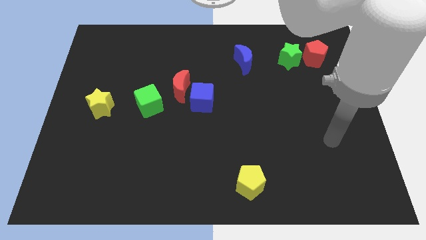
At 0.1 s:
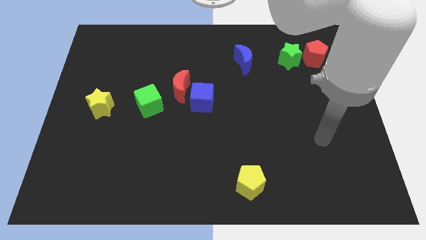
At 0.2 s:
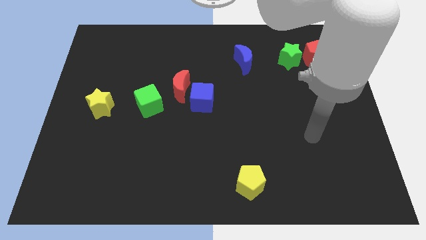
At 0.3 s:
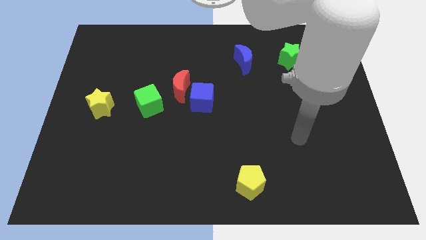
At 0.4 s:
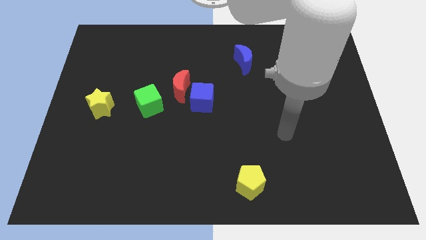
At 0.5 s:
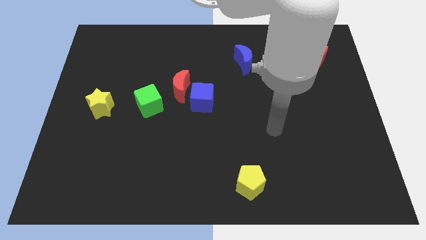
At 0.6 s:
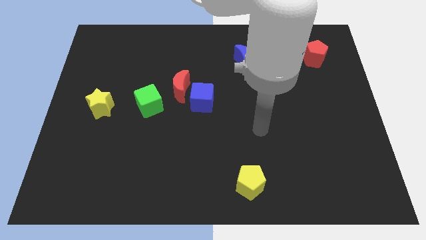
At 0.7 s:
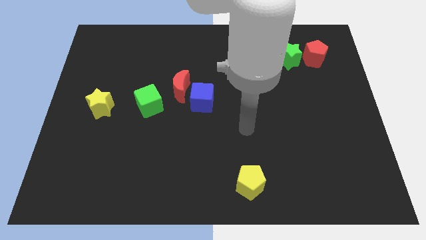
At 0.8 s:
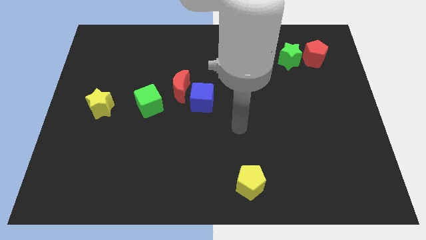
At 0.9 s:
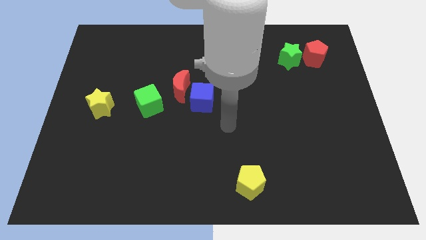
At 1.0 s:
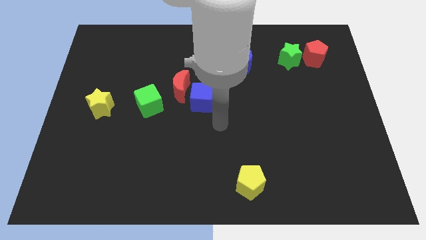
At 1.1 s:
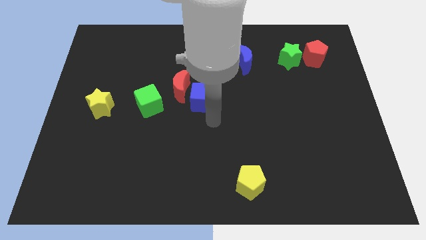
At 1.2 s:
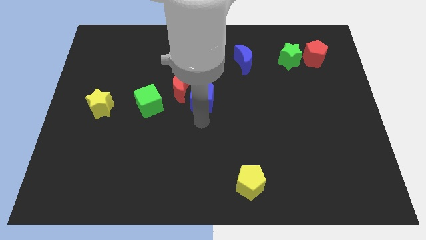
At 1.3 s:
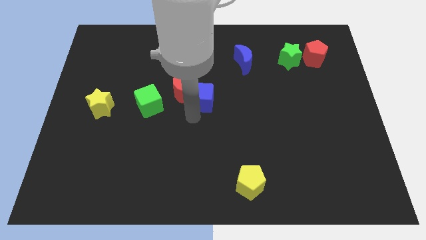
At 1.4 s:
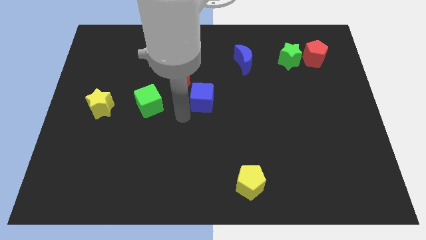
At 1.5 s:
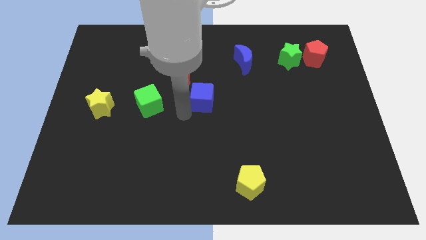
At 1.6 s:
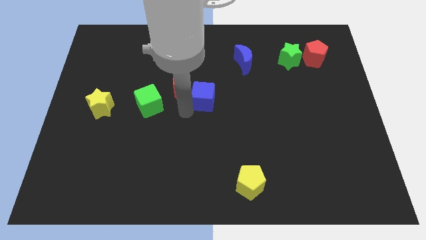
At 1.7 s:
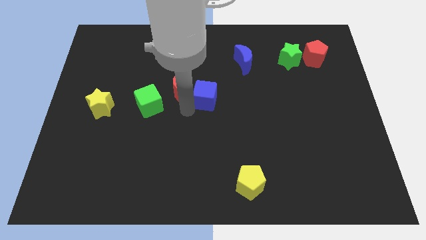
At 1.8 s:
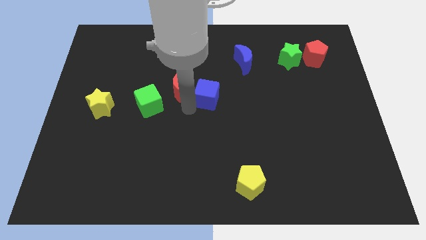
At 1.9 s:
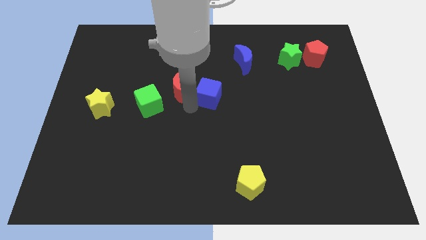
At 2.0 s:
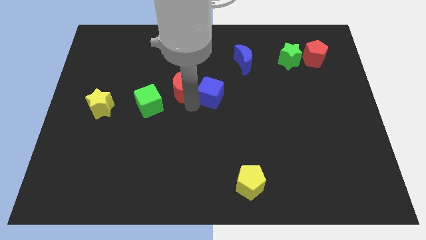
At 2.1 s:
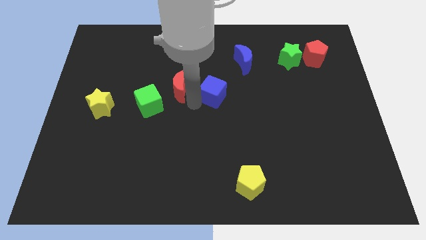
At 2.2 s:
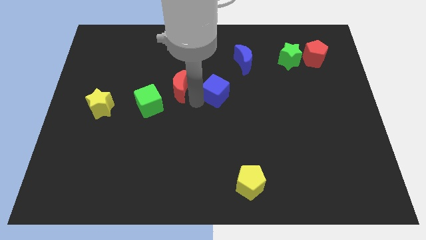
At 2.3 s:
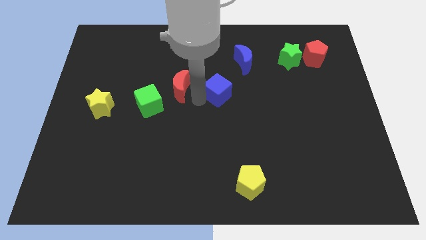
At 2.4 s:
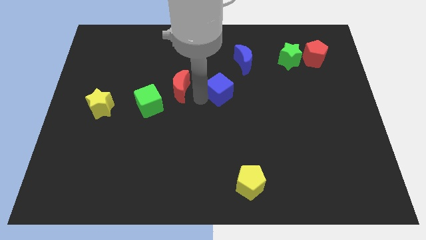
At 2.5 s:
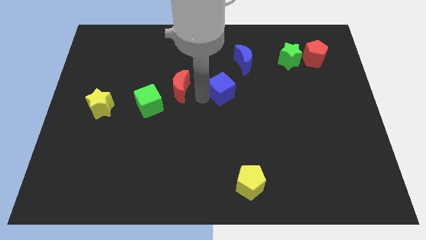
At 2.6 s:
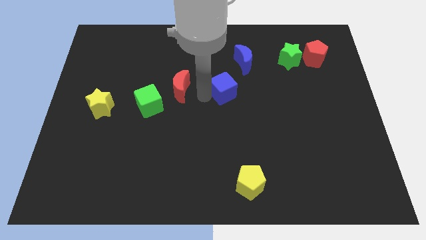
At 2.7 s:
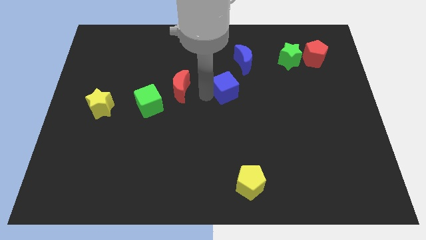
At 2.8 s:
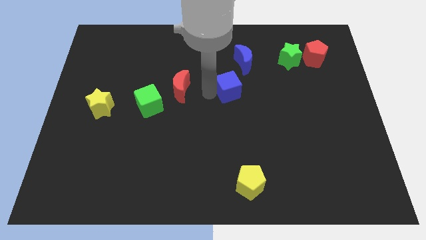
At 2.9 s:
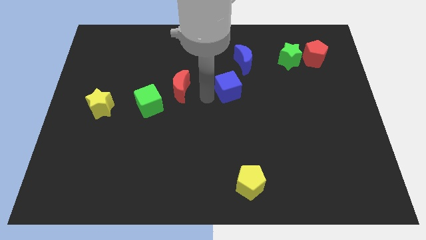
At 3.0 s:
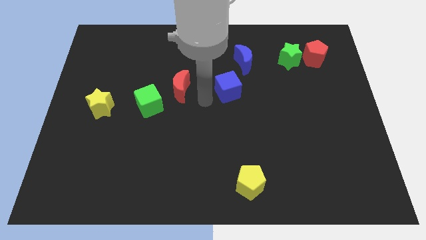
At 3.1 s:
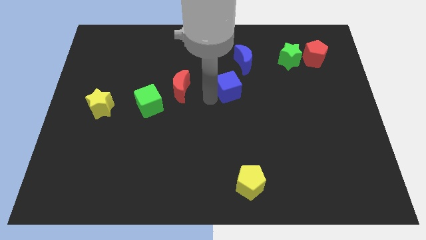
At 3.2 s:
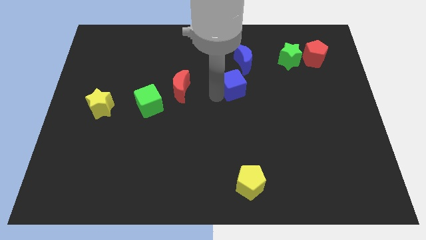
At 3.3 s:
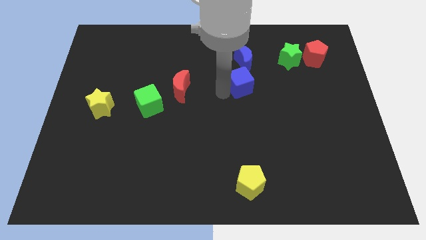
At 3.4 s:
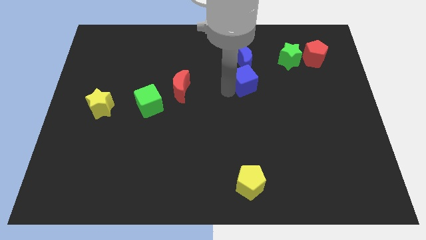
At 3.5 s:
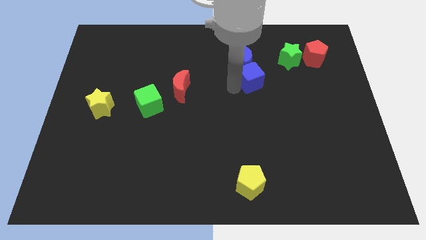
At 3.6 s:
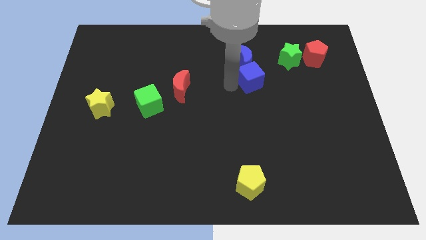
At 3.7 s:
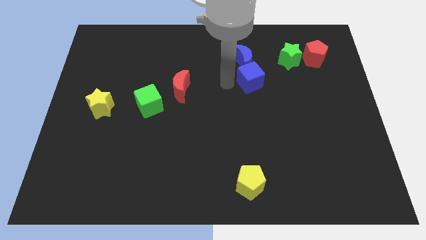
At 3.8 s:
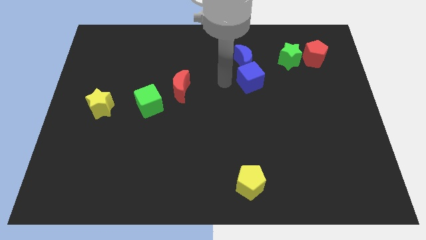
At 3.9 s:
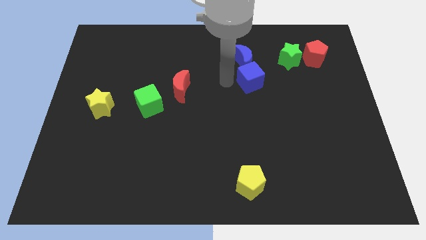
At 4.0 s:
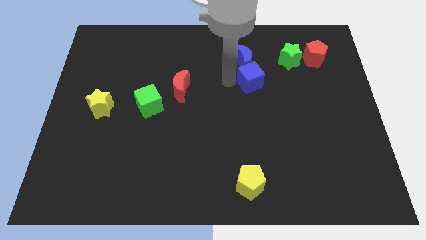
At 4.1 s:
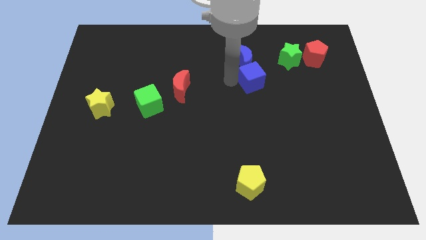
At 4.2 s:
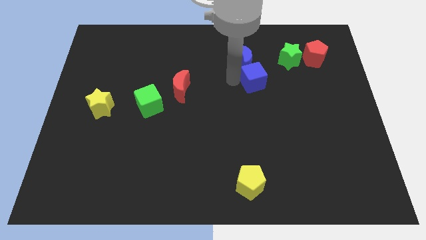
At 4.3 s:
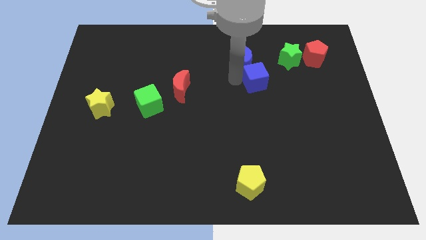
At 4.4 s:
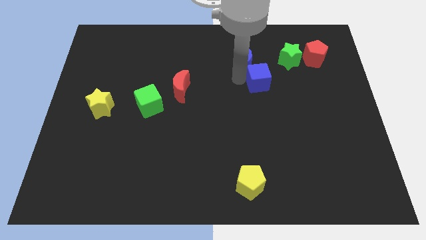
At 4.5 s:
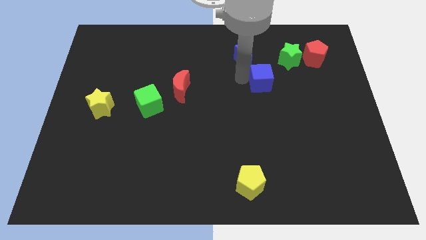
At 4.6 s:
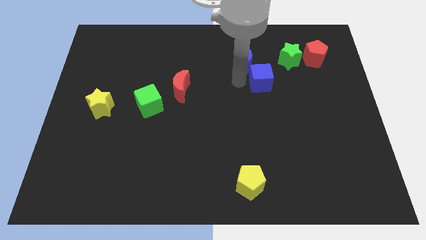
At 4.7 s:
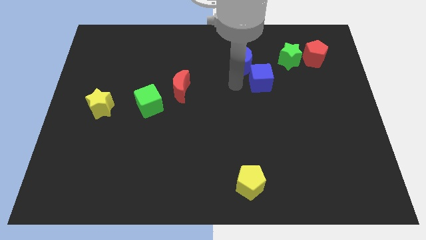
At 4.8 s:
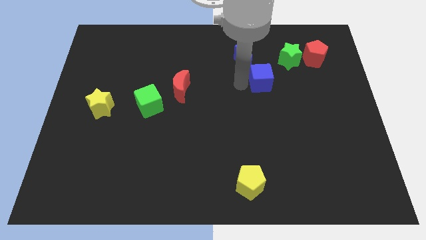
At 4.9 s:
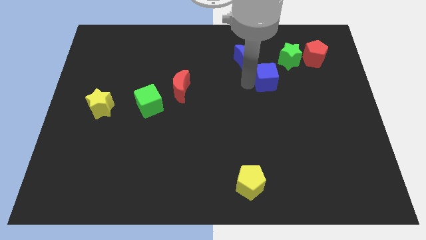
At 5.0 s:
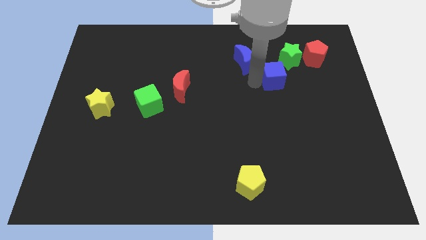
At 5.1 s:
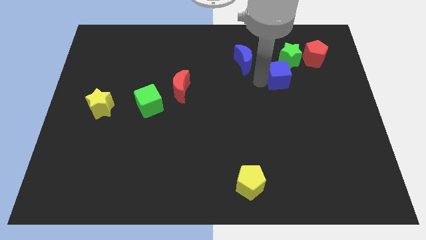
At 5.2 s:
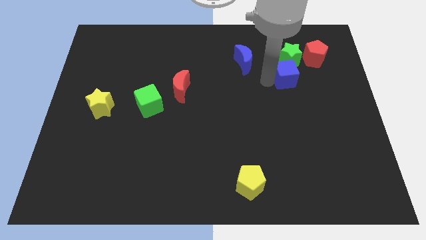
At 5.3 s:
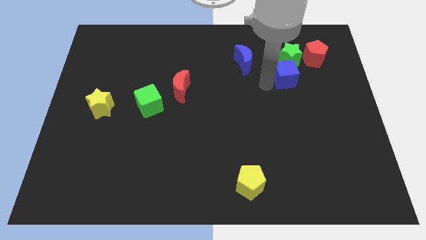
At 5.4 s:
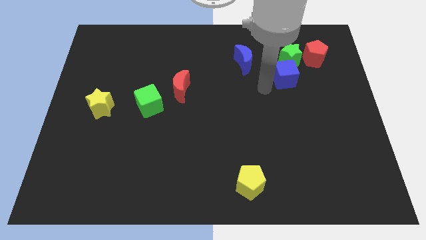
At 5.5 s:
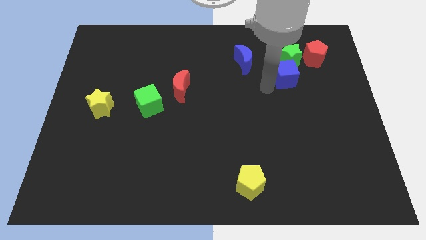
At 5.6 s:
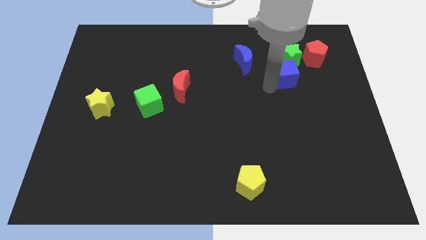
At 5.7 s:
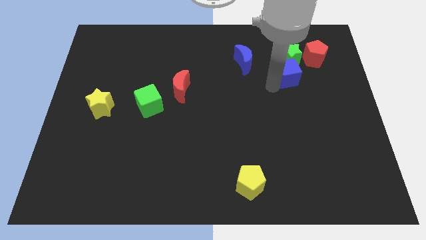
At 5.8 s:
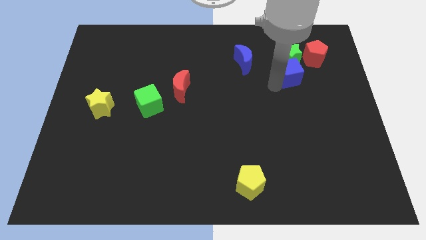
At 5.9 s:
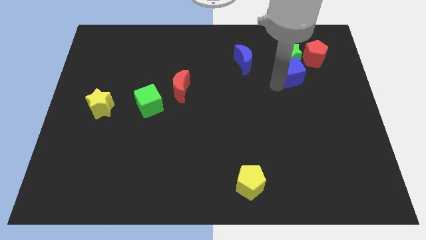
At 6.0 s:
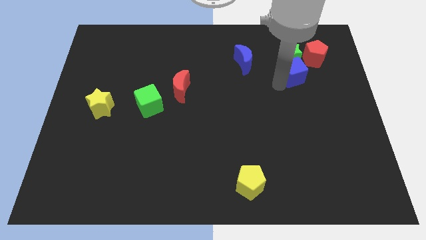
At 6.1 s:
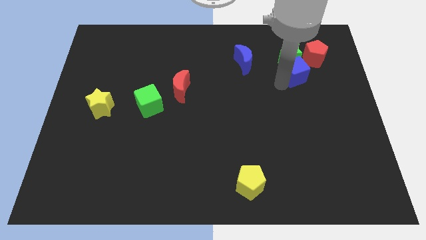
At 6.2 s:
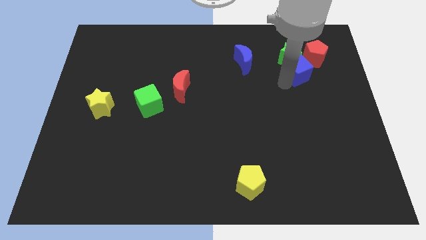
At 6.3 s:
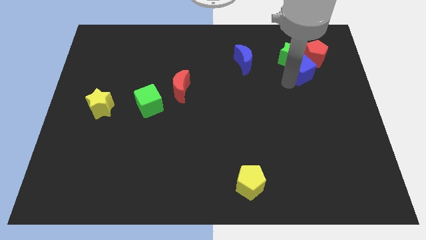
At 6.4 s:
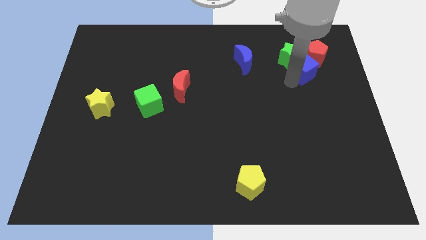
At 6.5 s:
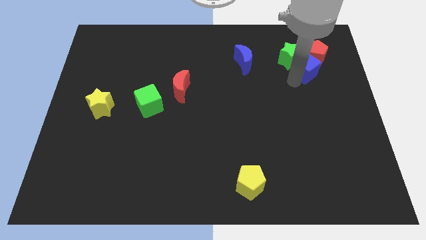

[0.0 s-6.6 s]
put the blue cube towards the red pentagon
